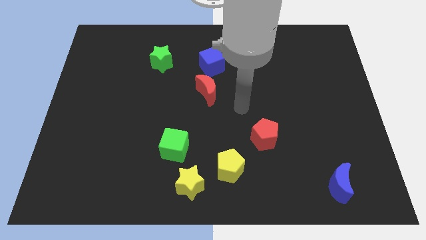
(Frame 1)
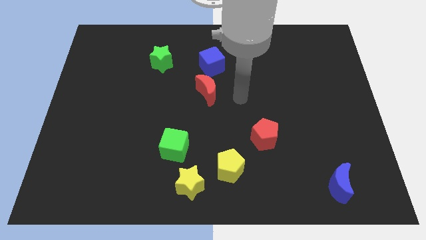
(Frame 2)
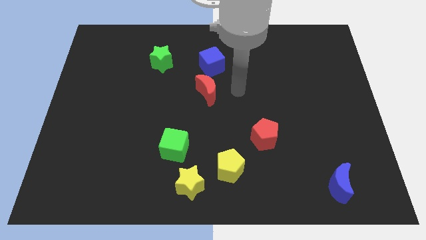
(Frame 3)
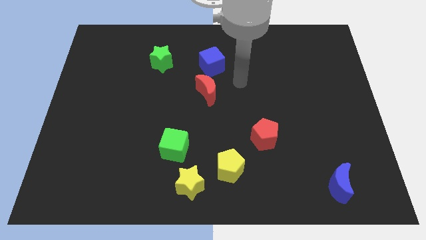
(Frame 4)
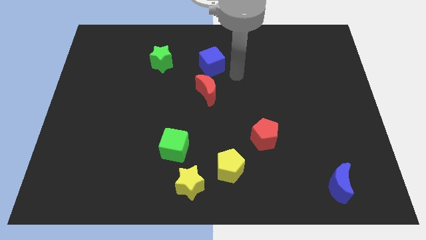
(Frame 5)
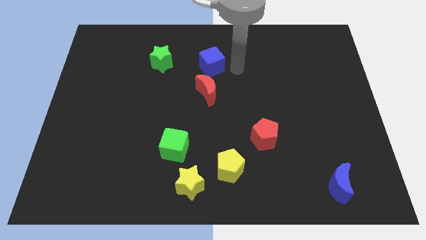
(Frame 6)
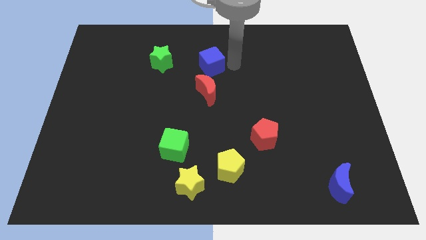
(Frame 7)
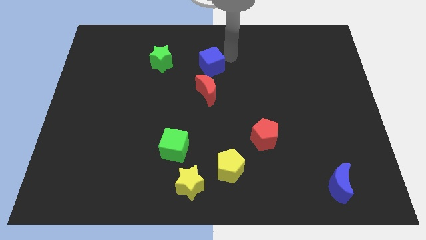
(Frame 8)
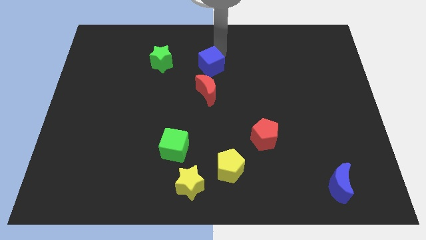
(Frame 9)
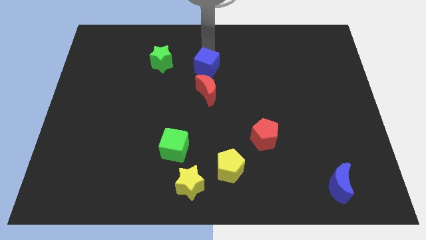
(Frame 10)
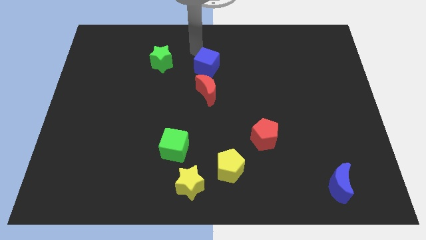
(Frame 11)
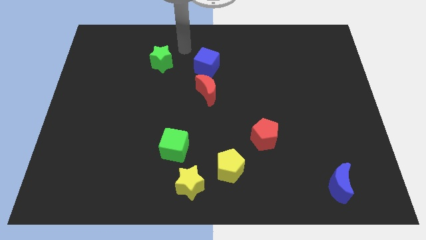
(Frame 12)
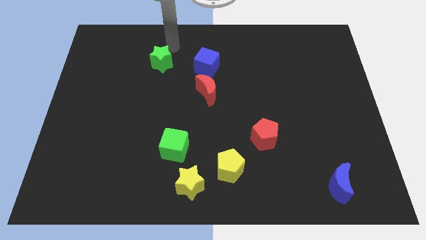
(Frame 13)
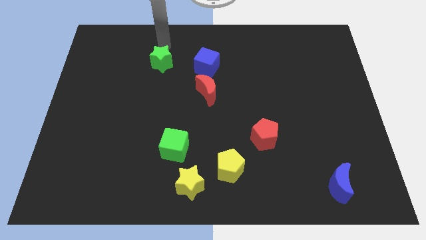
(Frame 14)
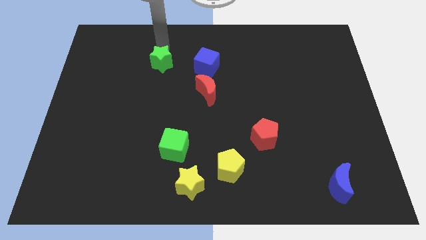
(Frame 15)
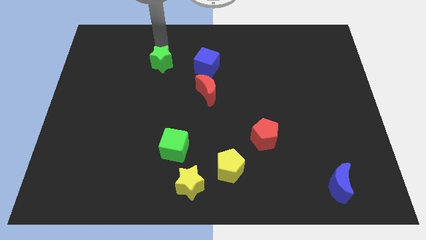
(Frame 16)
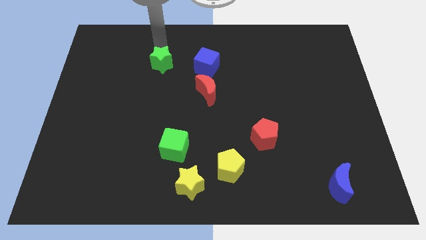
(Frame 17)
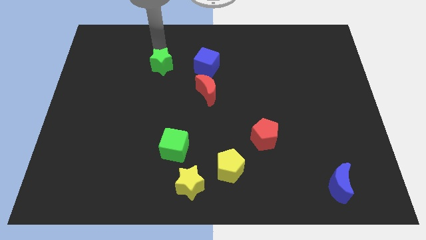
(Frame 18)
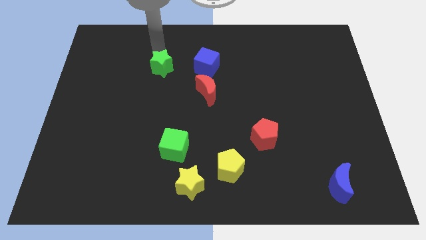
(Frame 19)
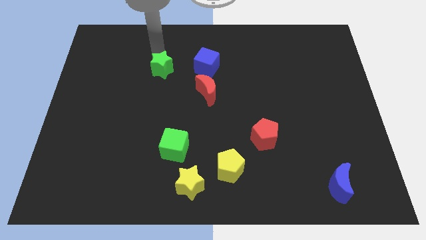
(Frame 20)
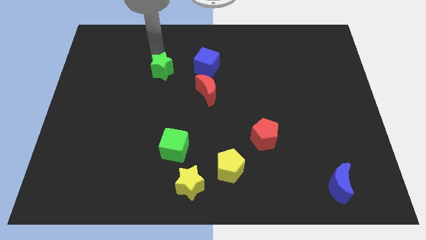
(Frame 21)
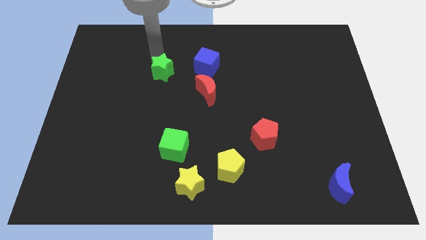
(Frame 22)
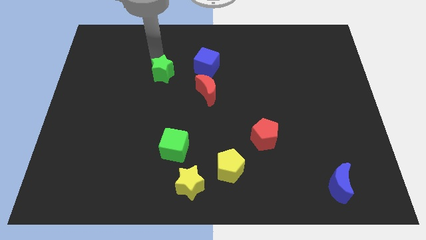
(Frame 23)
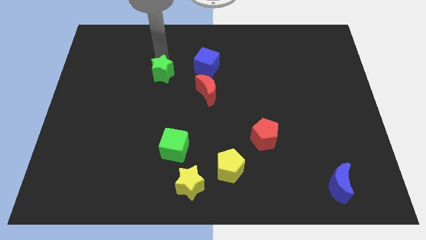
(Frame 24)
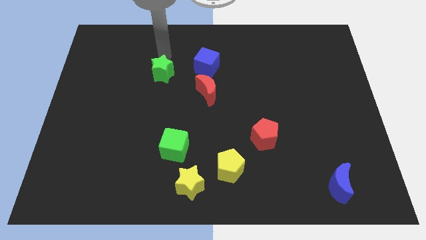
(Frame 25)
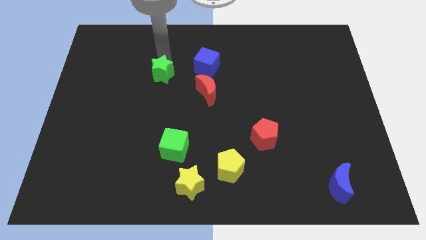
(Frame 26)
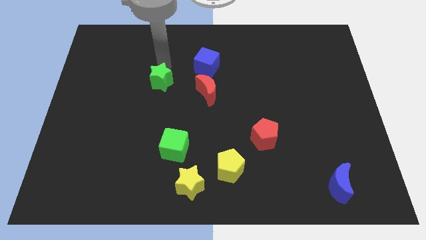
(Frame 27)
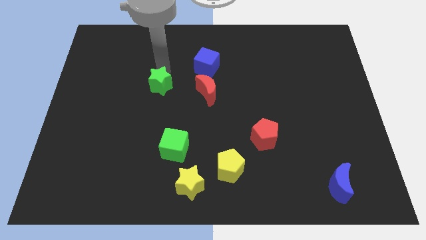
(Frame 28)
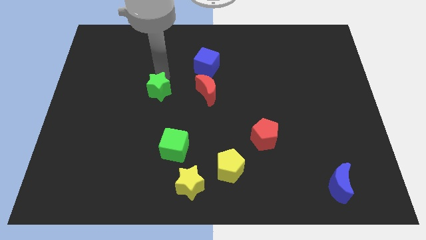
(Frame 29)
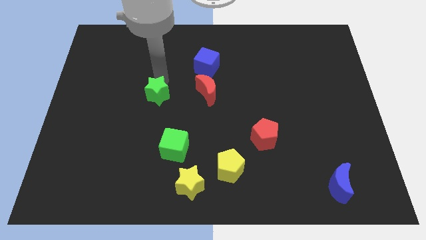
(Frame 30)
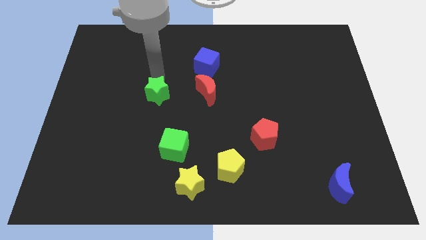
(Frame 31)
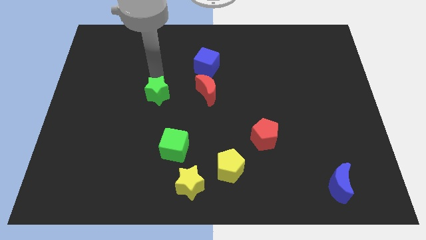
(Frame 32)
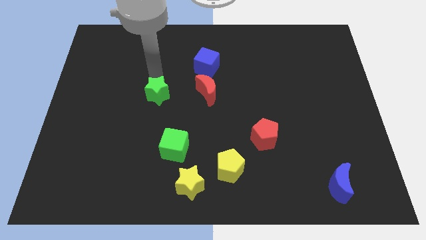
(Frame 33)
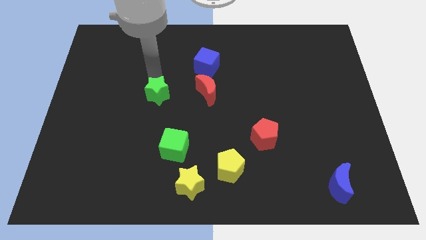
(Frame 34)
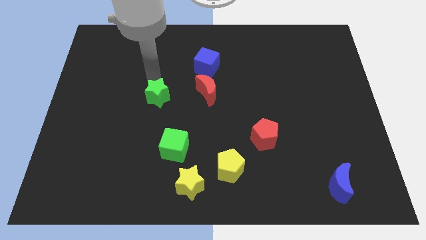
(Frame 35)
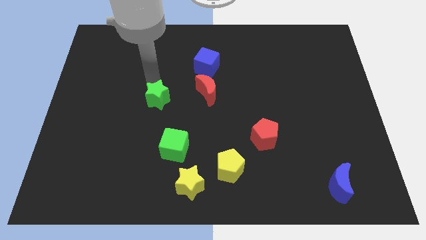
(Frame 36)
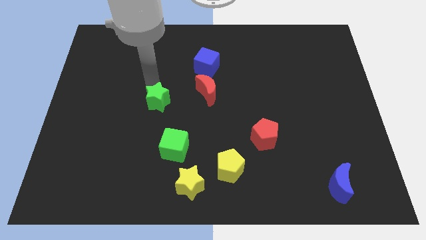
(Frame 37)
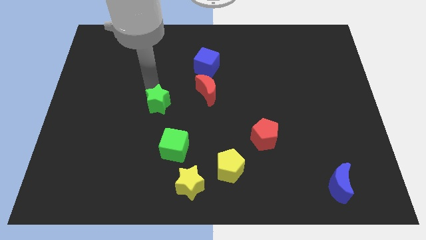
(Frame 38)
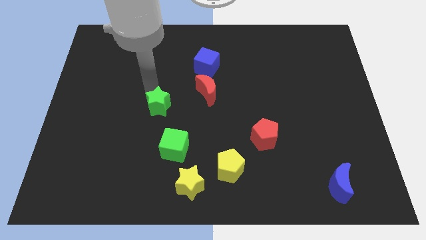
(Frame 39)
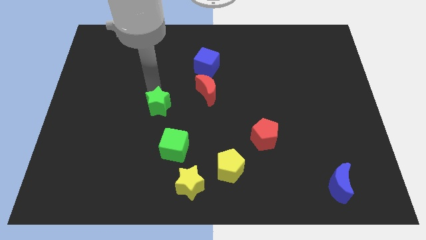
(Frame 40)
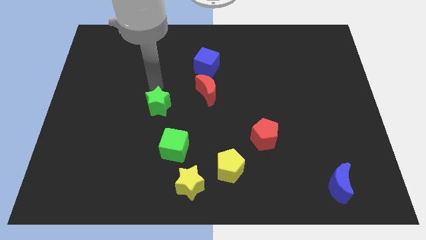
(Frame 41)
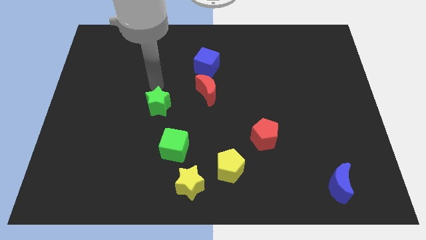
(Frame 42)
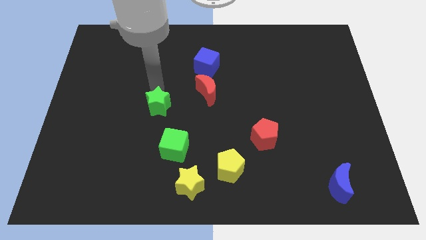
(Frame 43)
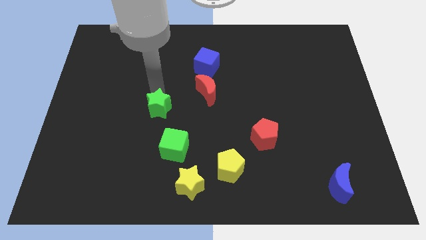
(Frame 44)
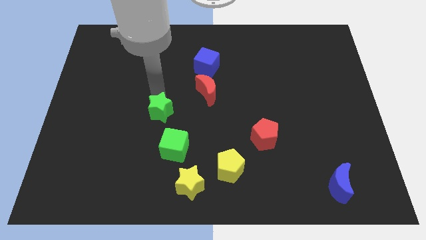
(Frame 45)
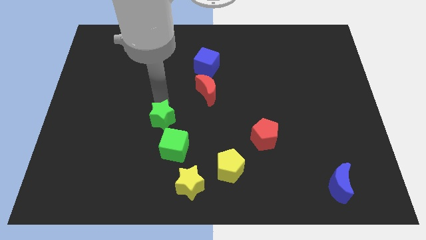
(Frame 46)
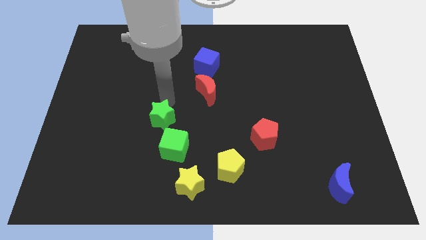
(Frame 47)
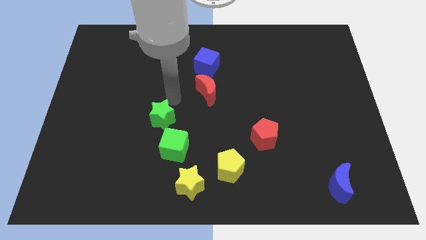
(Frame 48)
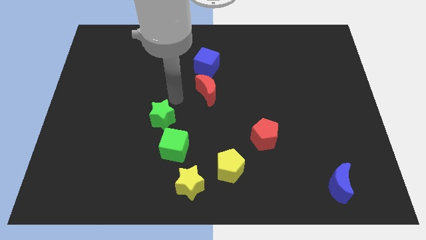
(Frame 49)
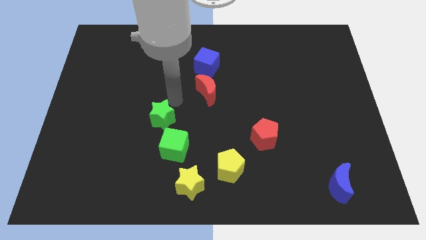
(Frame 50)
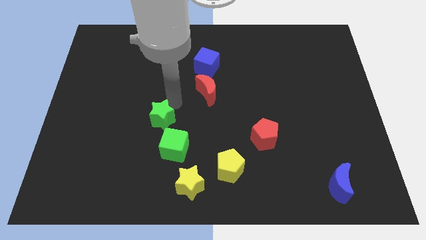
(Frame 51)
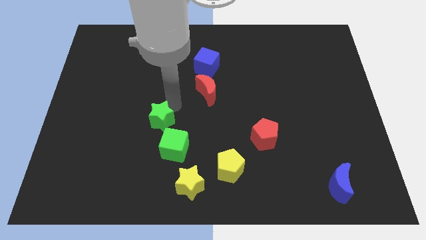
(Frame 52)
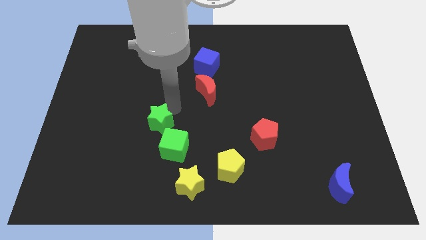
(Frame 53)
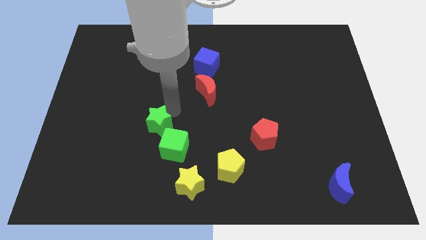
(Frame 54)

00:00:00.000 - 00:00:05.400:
slide the green star down

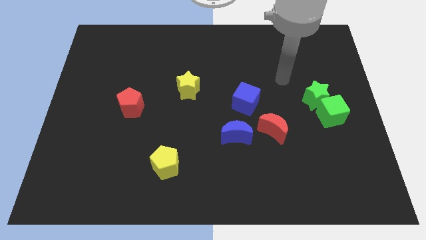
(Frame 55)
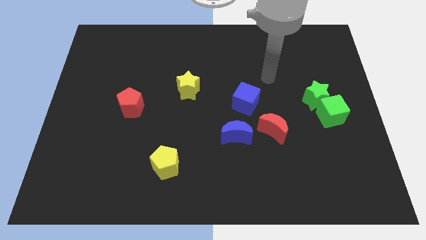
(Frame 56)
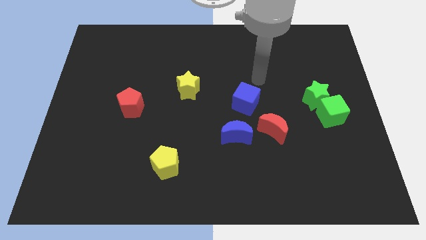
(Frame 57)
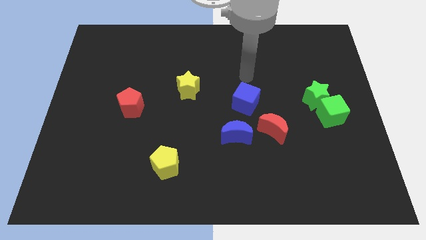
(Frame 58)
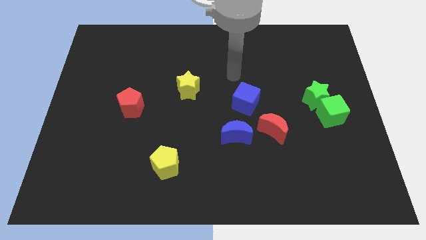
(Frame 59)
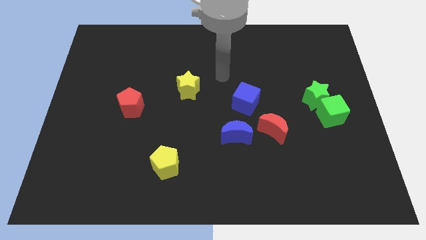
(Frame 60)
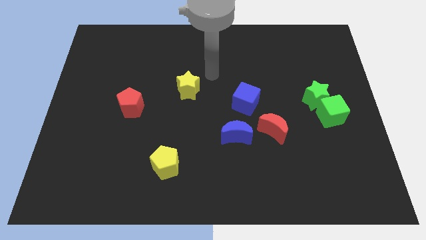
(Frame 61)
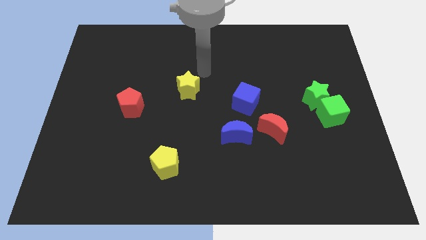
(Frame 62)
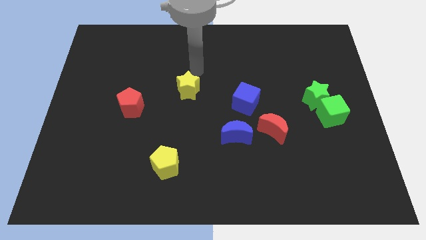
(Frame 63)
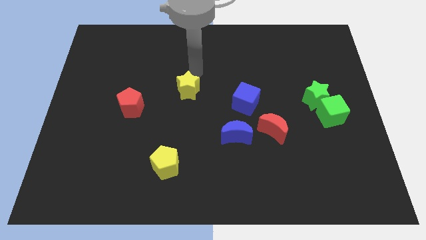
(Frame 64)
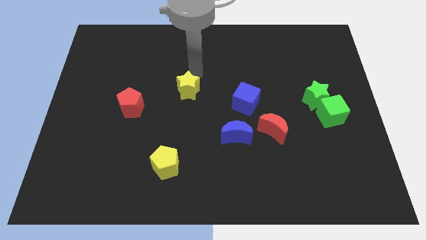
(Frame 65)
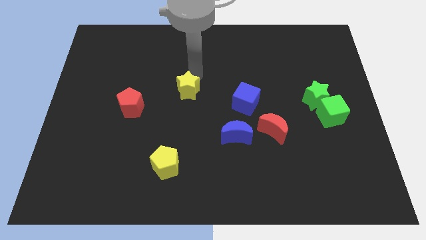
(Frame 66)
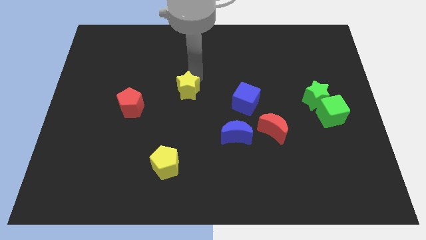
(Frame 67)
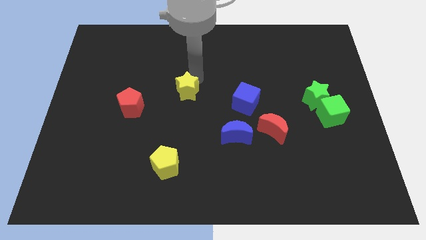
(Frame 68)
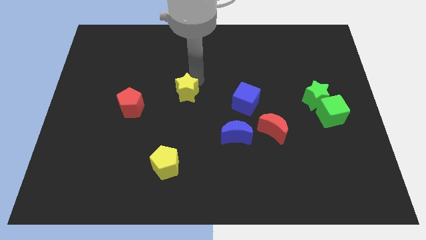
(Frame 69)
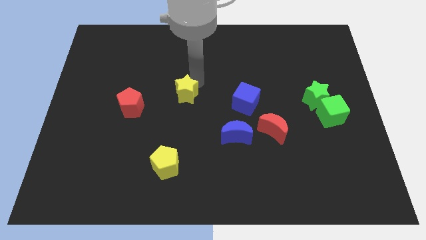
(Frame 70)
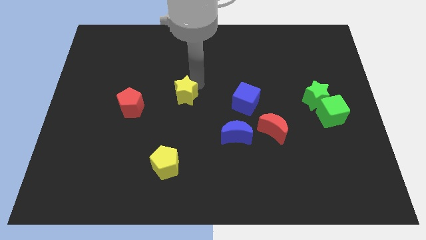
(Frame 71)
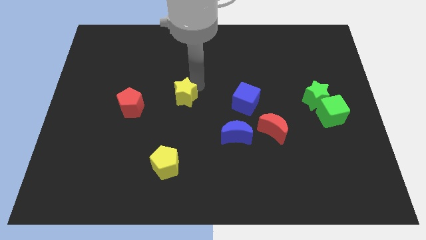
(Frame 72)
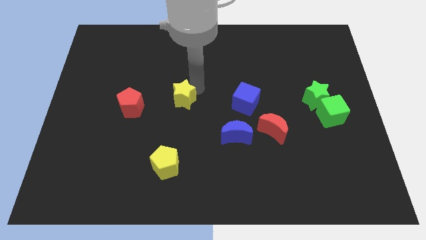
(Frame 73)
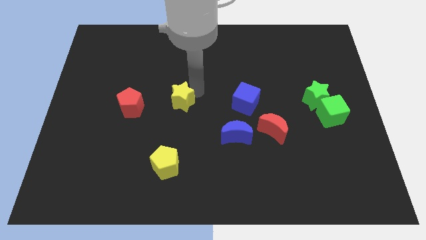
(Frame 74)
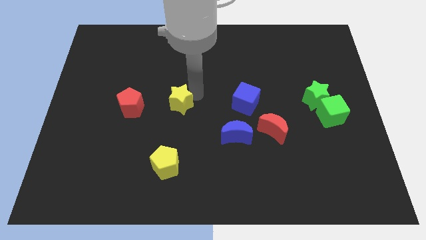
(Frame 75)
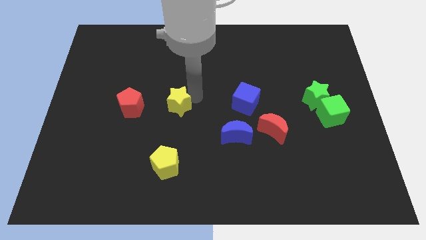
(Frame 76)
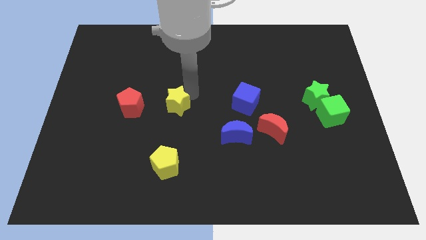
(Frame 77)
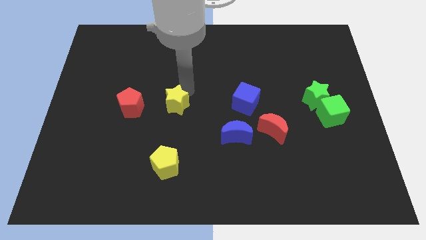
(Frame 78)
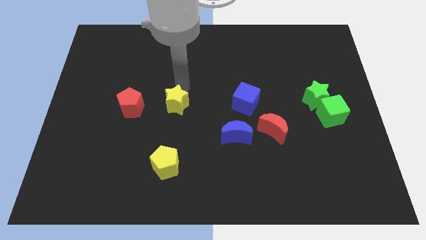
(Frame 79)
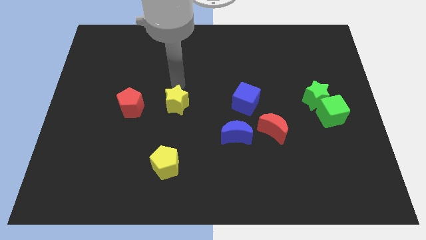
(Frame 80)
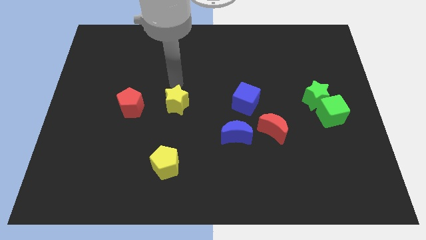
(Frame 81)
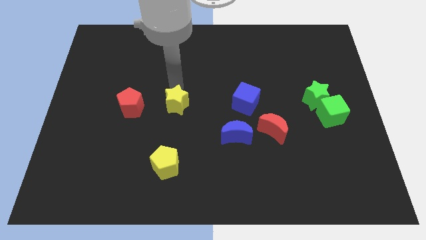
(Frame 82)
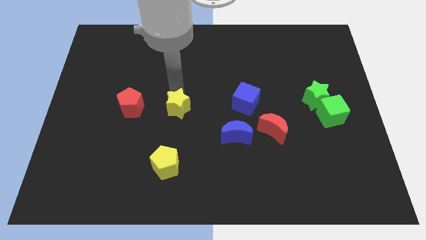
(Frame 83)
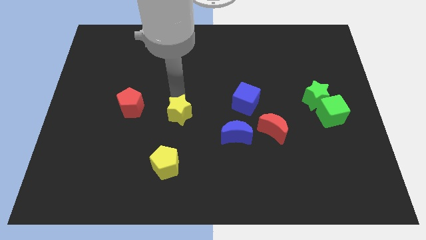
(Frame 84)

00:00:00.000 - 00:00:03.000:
slightly push the yellow star down
